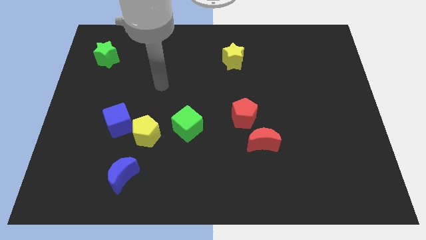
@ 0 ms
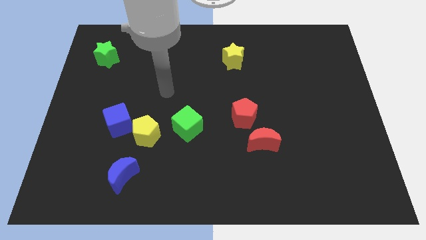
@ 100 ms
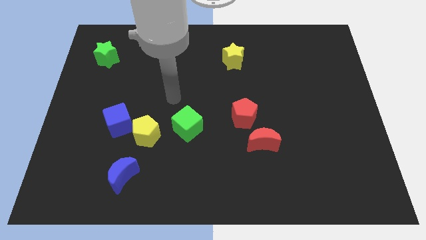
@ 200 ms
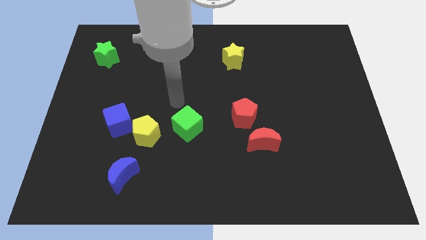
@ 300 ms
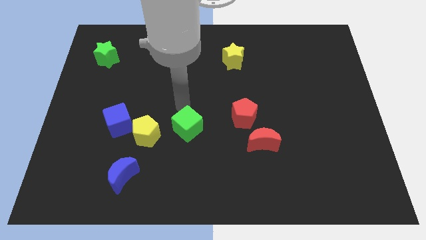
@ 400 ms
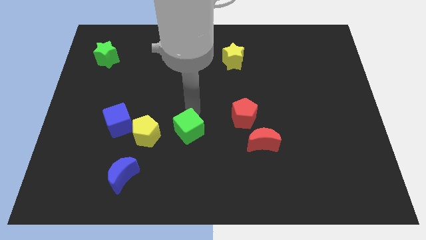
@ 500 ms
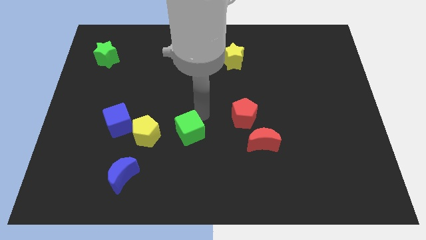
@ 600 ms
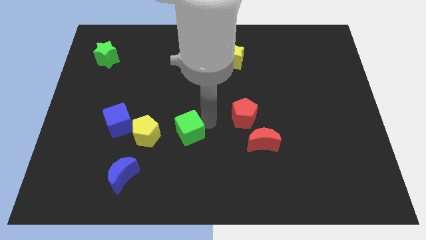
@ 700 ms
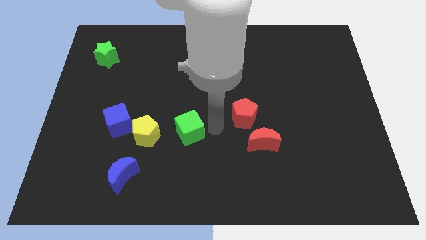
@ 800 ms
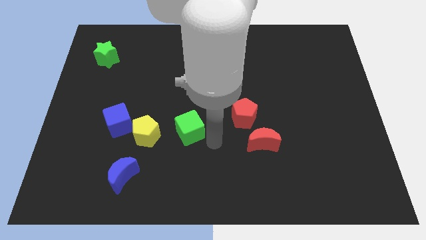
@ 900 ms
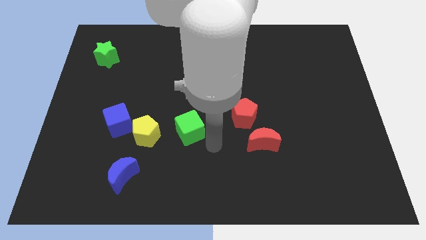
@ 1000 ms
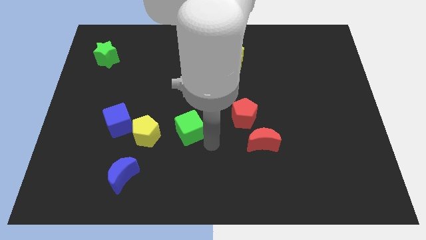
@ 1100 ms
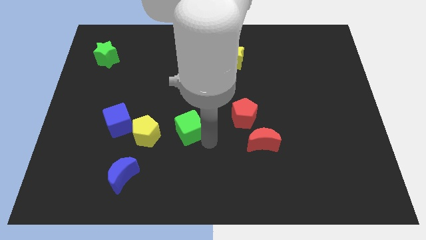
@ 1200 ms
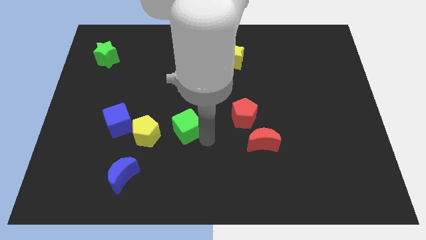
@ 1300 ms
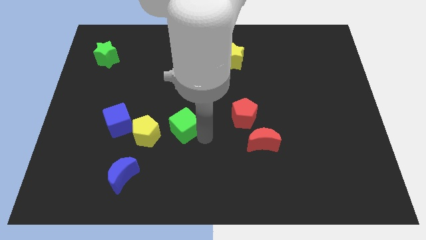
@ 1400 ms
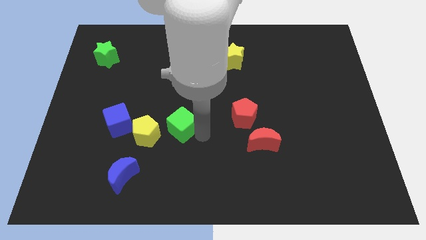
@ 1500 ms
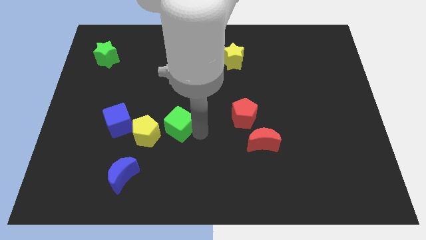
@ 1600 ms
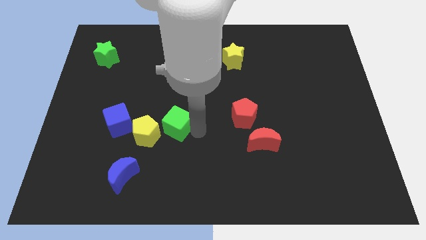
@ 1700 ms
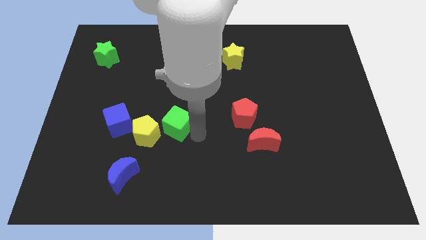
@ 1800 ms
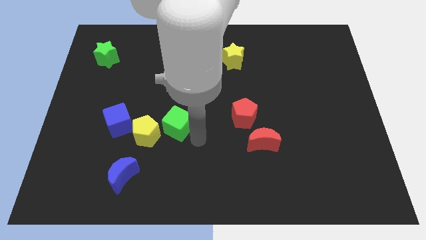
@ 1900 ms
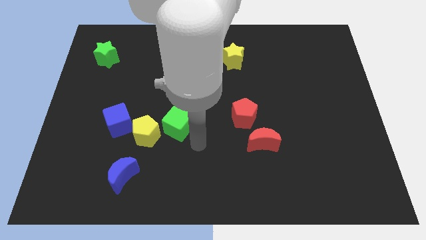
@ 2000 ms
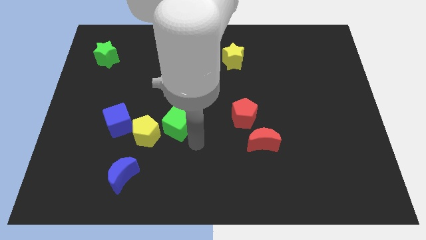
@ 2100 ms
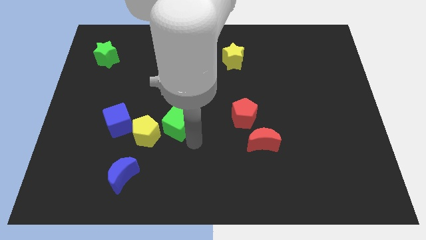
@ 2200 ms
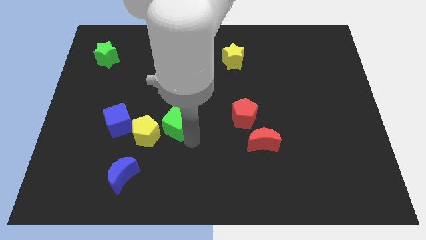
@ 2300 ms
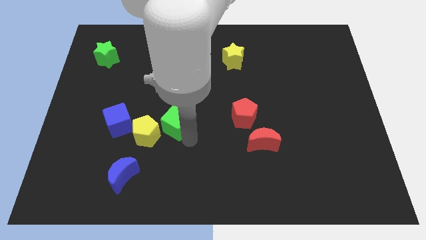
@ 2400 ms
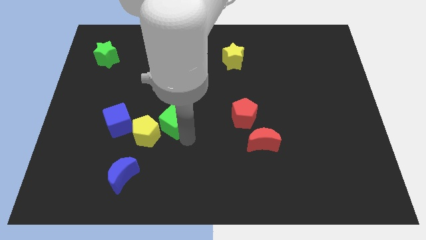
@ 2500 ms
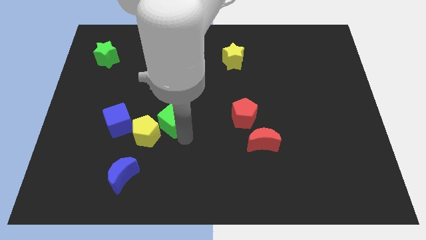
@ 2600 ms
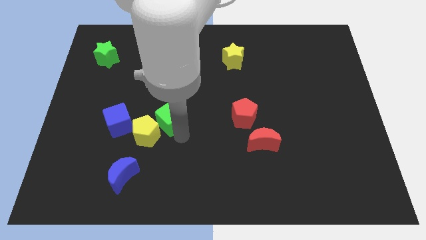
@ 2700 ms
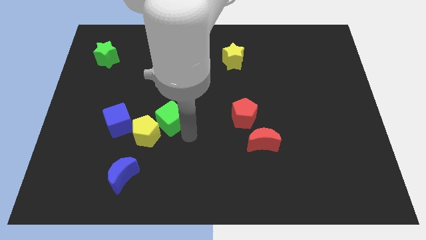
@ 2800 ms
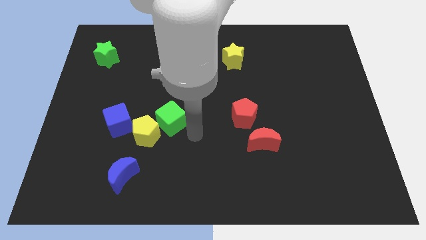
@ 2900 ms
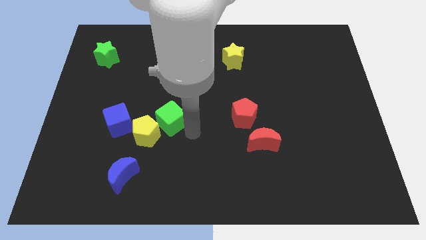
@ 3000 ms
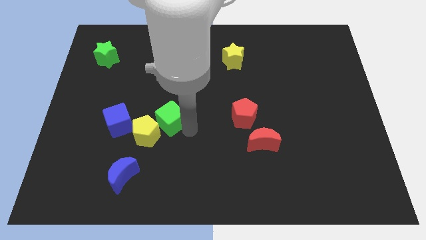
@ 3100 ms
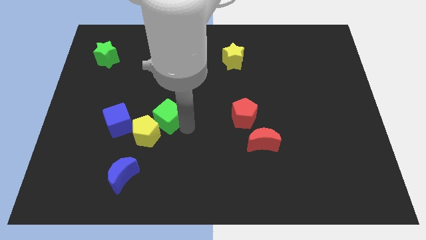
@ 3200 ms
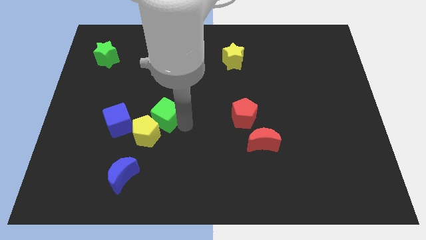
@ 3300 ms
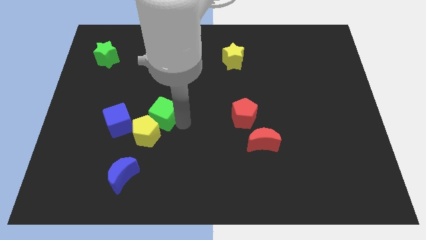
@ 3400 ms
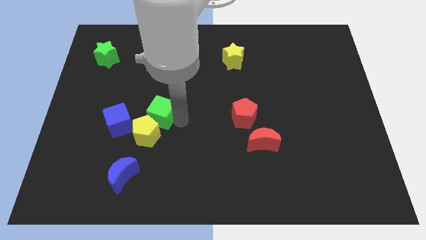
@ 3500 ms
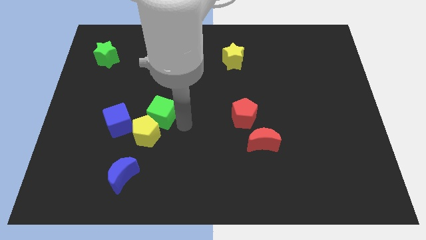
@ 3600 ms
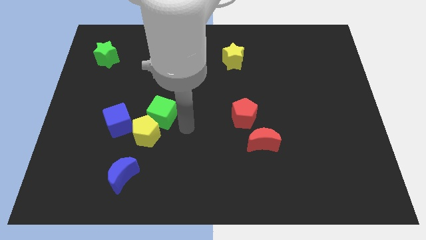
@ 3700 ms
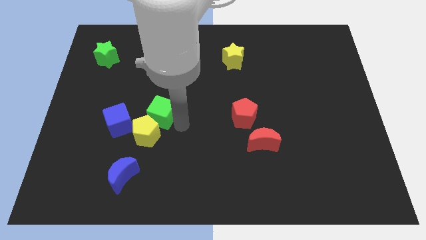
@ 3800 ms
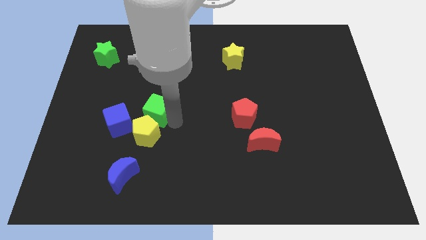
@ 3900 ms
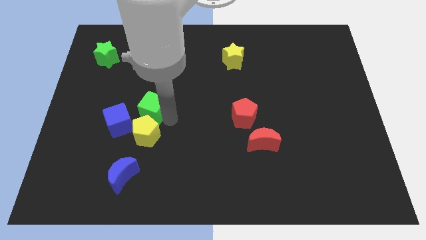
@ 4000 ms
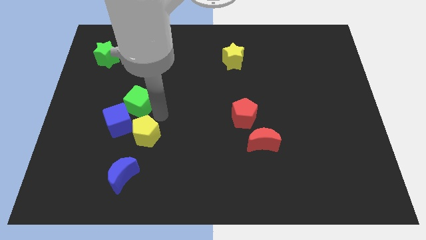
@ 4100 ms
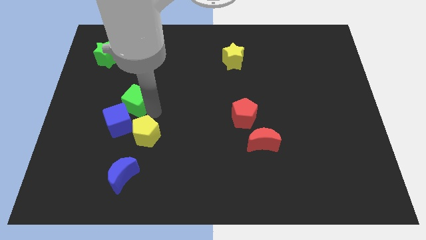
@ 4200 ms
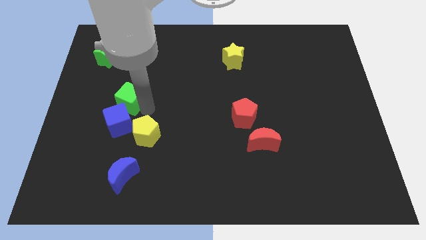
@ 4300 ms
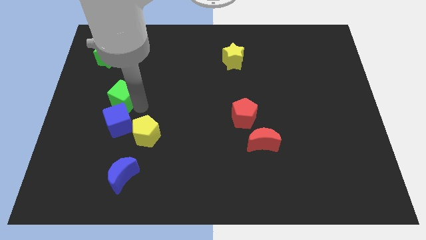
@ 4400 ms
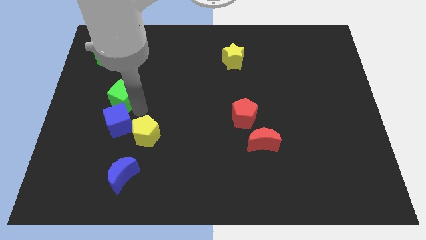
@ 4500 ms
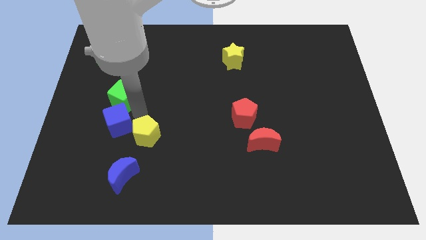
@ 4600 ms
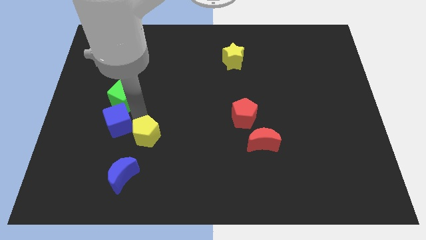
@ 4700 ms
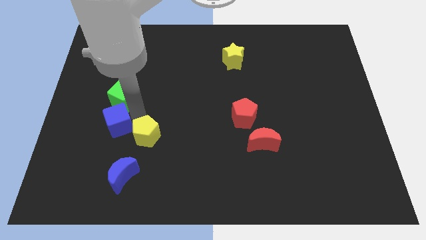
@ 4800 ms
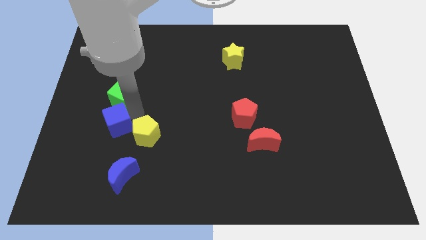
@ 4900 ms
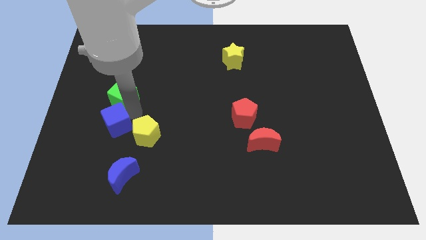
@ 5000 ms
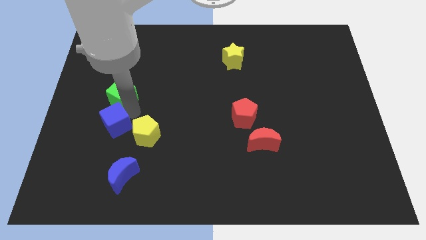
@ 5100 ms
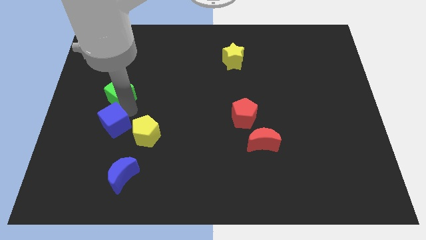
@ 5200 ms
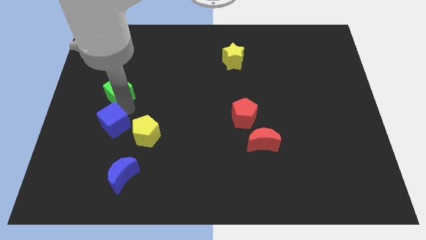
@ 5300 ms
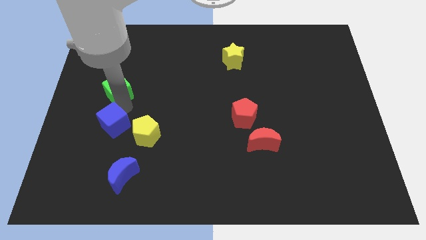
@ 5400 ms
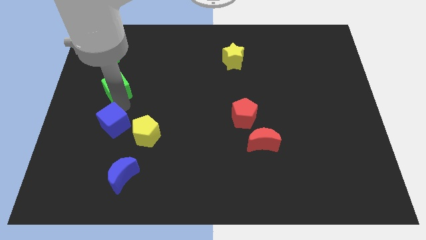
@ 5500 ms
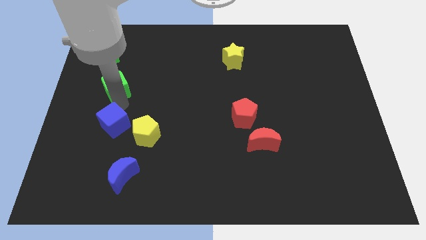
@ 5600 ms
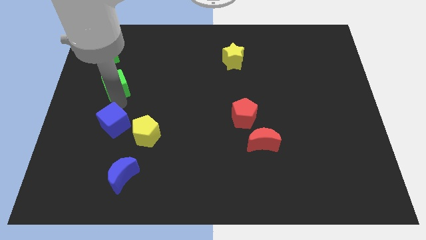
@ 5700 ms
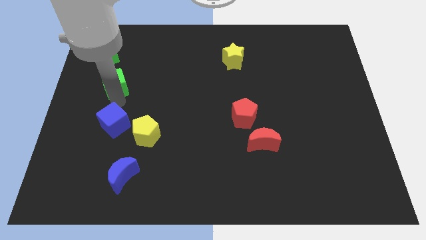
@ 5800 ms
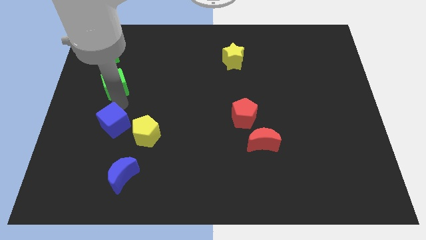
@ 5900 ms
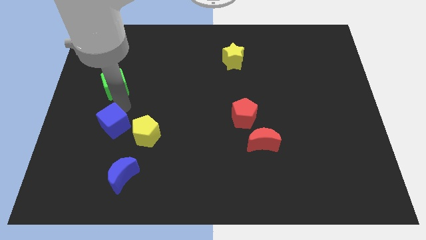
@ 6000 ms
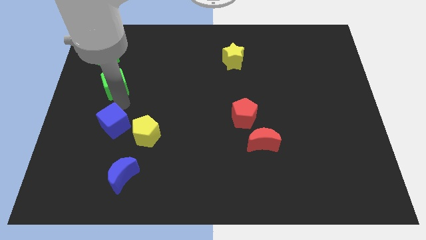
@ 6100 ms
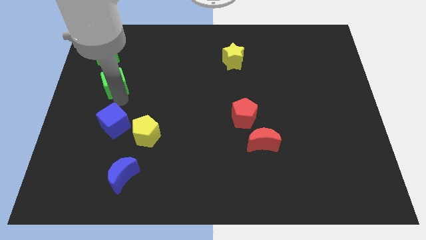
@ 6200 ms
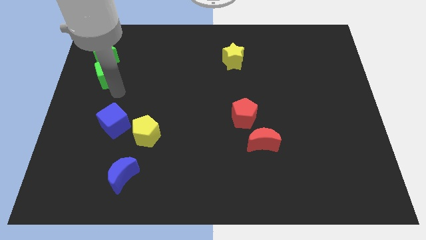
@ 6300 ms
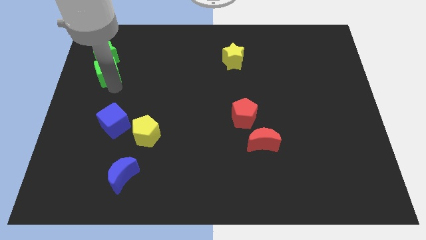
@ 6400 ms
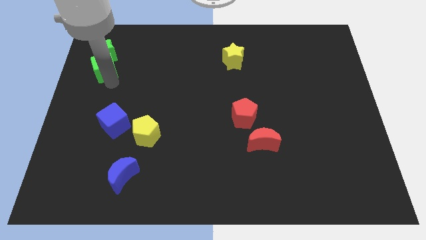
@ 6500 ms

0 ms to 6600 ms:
put the green cube to the green star

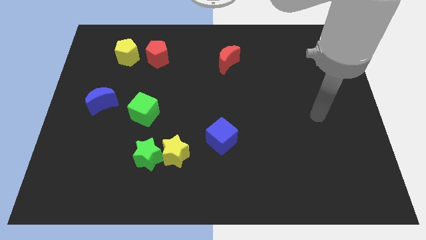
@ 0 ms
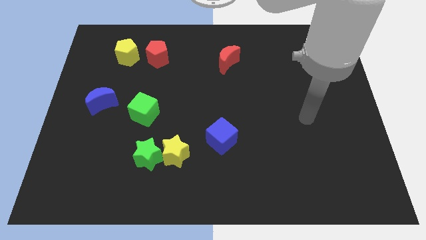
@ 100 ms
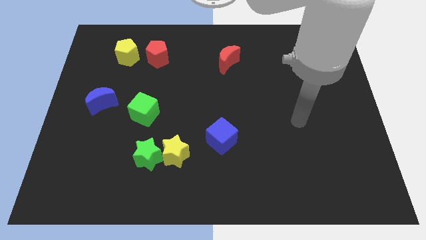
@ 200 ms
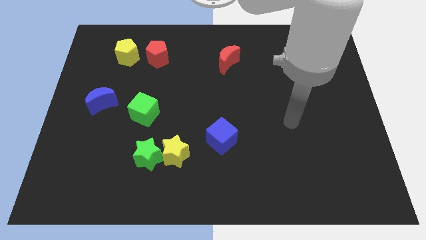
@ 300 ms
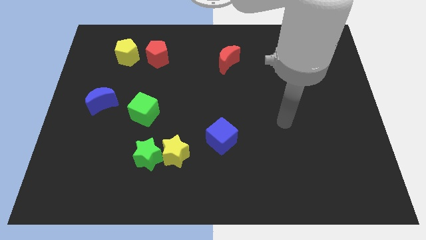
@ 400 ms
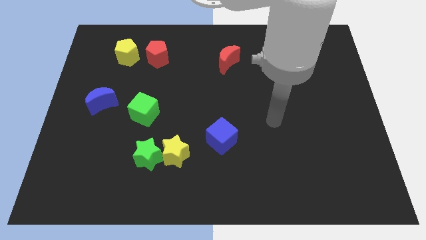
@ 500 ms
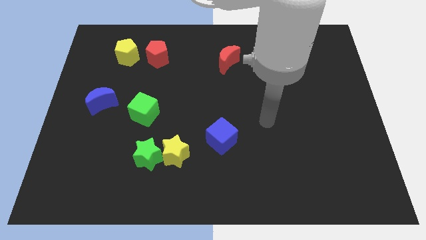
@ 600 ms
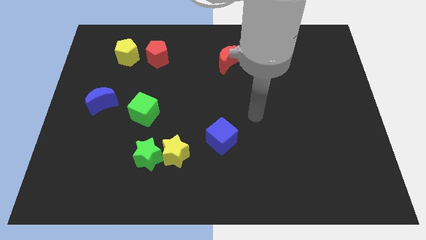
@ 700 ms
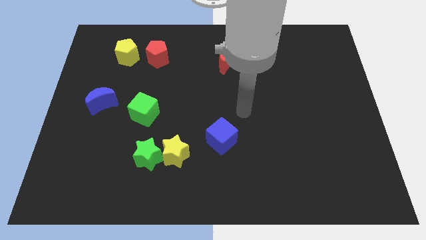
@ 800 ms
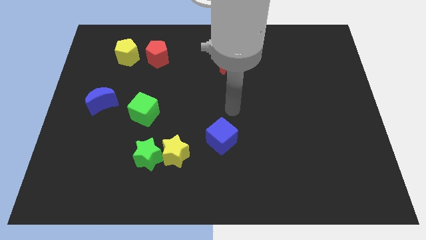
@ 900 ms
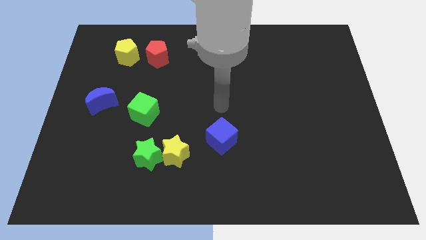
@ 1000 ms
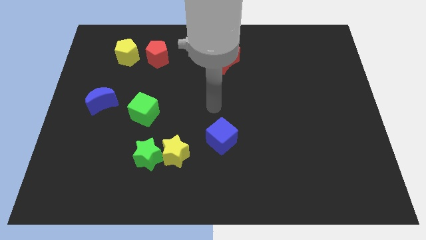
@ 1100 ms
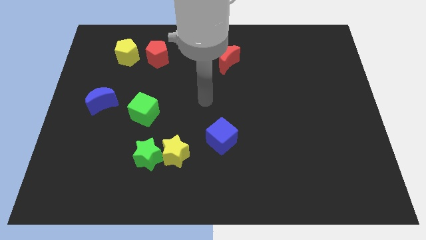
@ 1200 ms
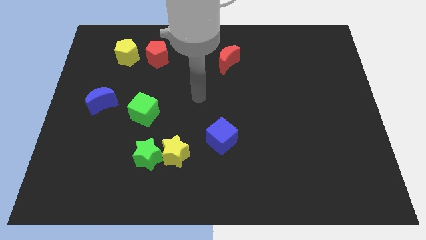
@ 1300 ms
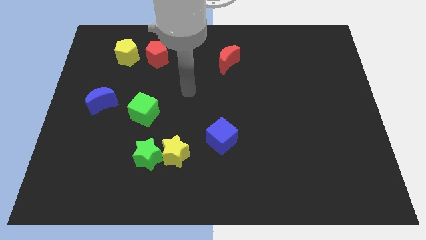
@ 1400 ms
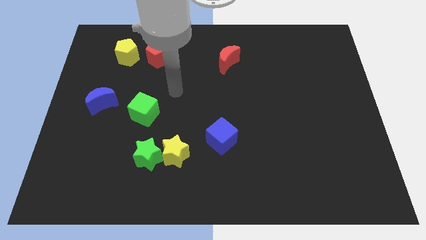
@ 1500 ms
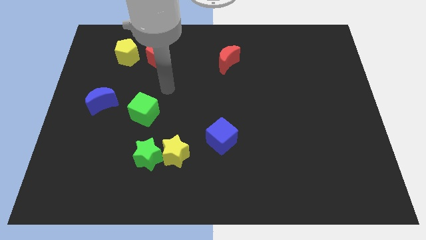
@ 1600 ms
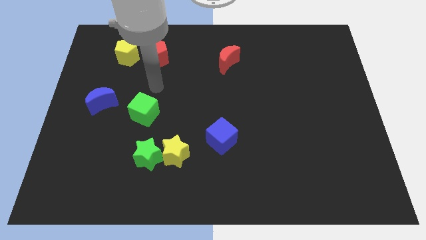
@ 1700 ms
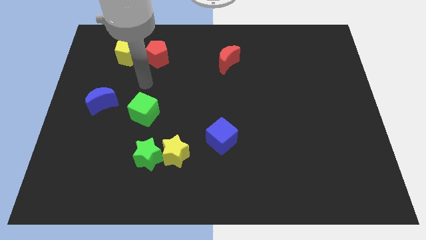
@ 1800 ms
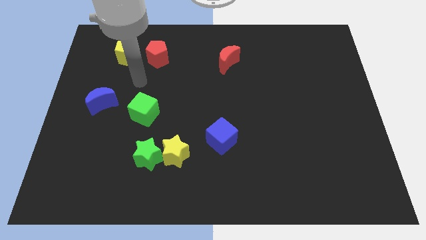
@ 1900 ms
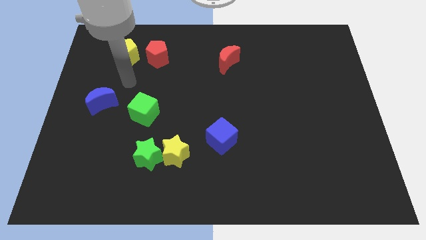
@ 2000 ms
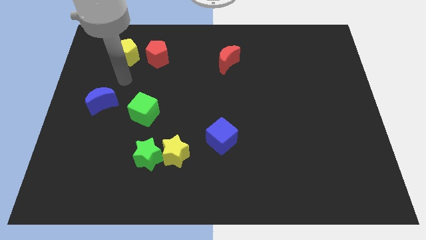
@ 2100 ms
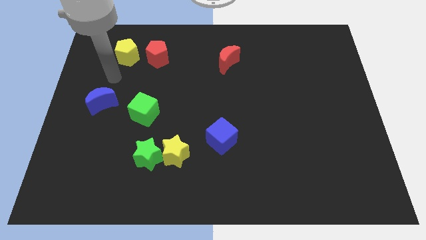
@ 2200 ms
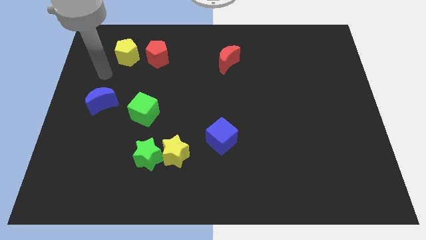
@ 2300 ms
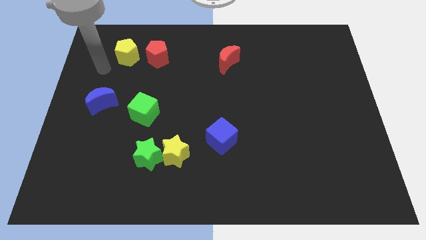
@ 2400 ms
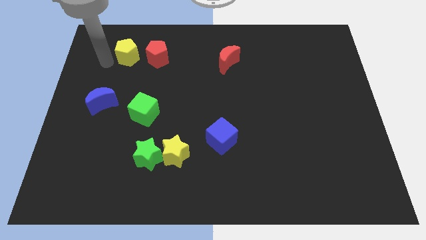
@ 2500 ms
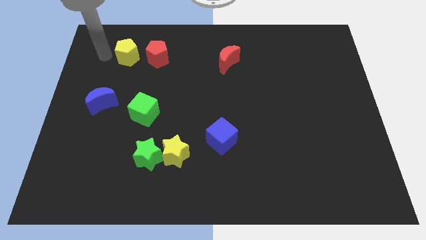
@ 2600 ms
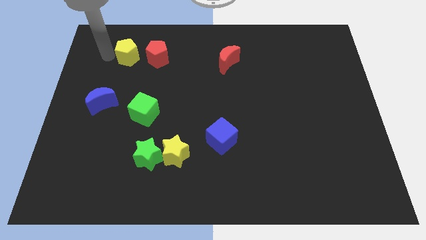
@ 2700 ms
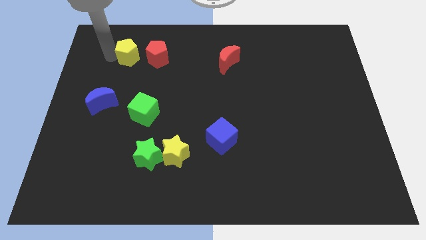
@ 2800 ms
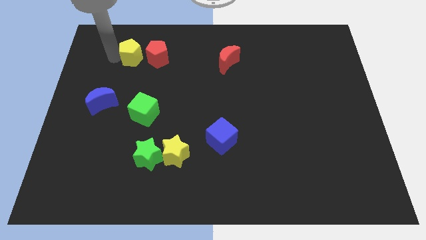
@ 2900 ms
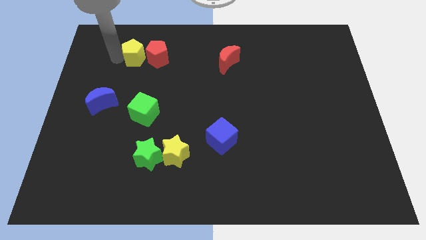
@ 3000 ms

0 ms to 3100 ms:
push the yellow pentagon towards the red pentagon
